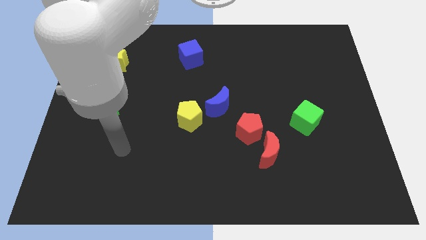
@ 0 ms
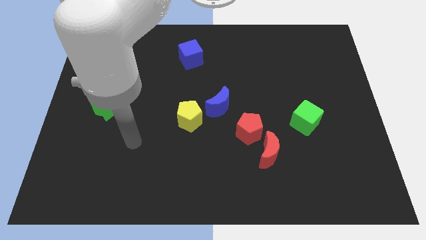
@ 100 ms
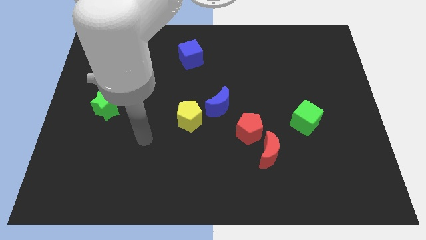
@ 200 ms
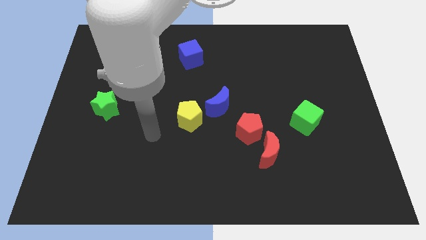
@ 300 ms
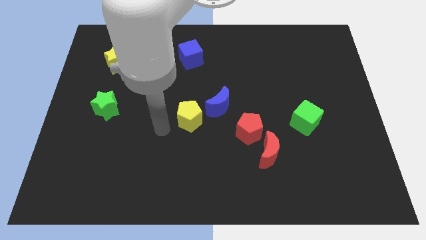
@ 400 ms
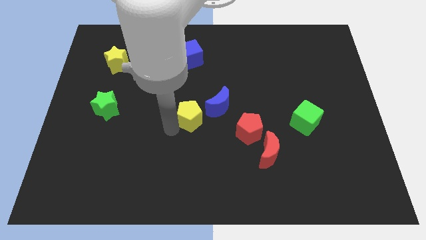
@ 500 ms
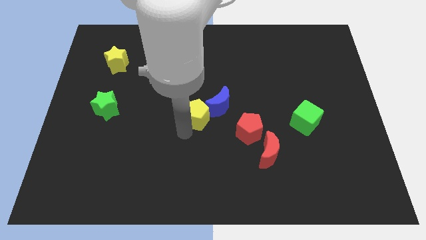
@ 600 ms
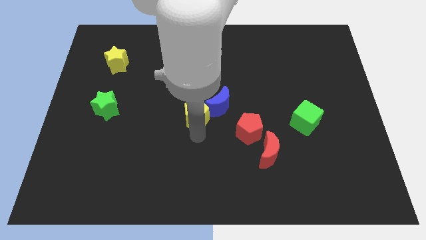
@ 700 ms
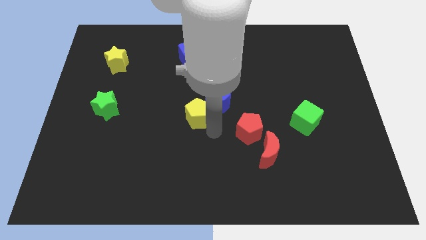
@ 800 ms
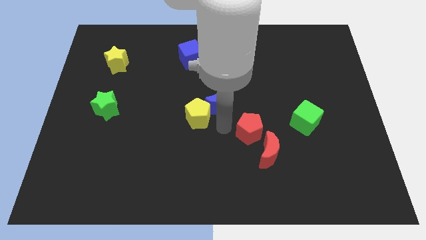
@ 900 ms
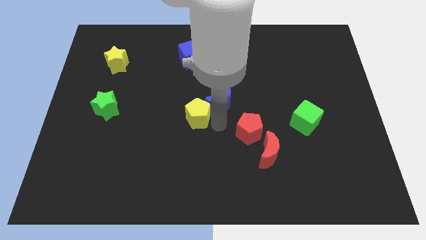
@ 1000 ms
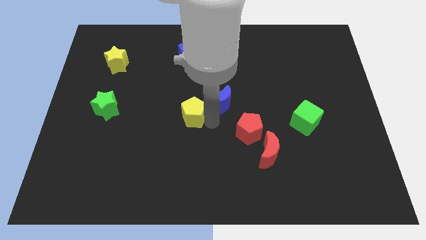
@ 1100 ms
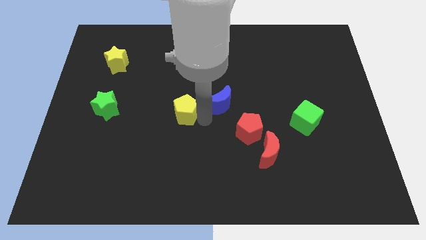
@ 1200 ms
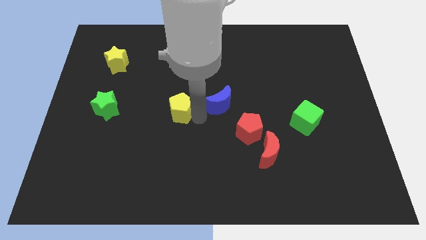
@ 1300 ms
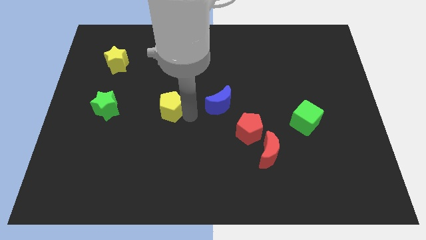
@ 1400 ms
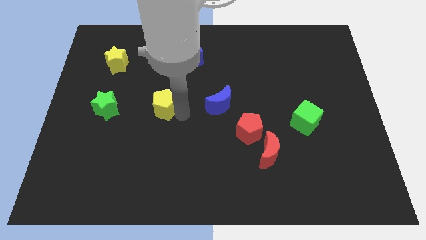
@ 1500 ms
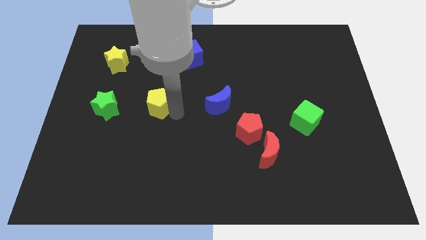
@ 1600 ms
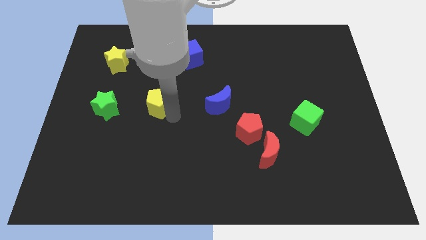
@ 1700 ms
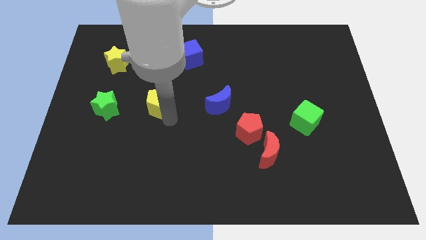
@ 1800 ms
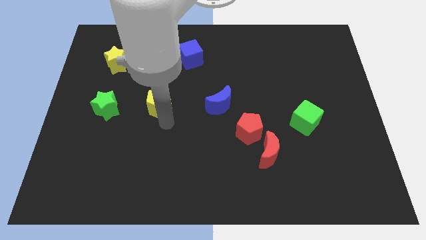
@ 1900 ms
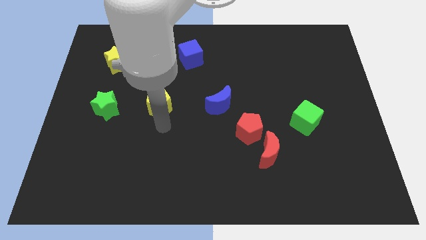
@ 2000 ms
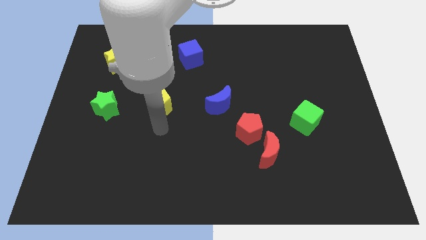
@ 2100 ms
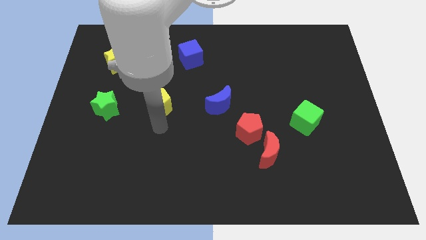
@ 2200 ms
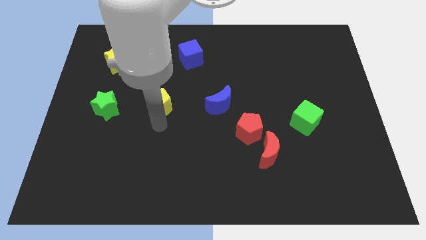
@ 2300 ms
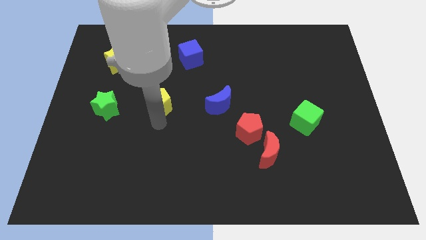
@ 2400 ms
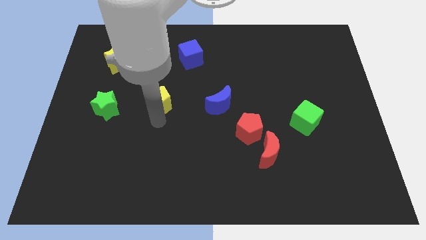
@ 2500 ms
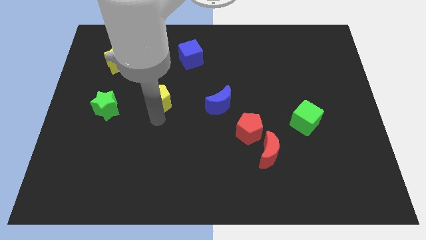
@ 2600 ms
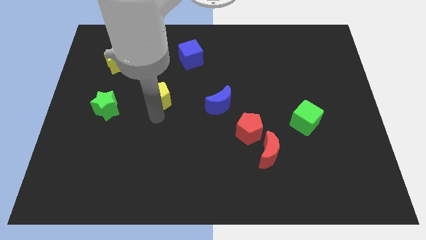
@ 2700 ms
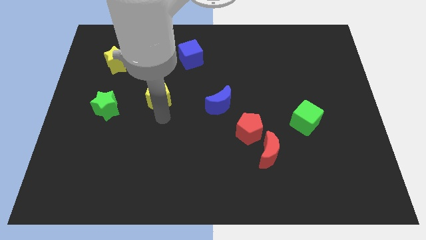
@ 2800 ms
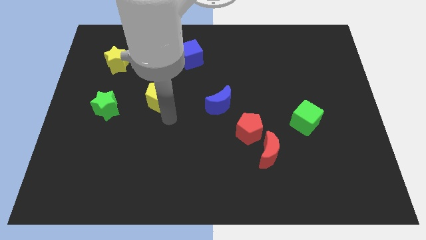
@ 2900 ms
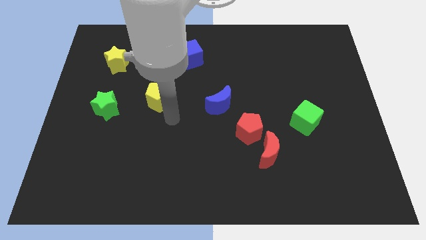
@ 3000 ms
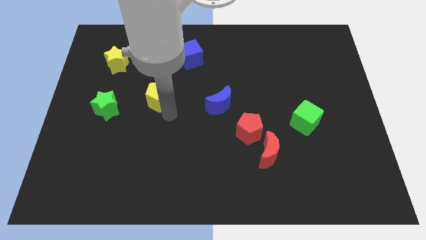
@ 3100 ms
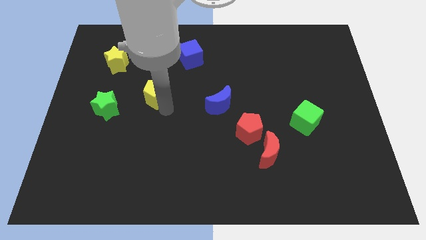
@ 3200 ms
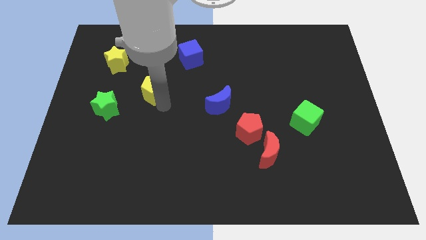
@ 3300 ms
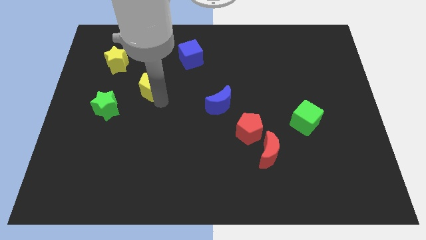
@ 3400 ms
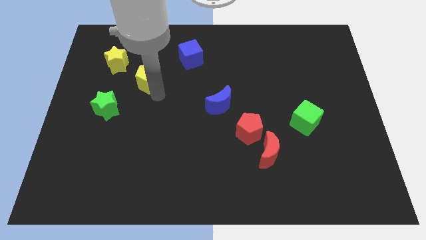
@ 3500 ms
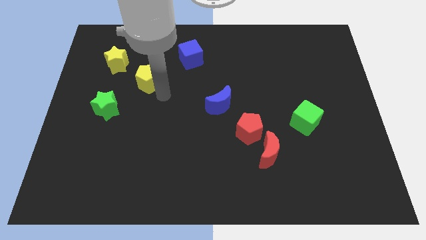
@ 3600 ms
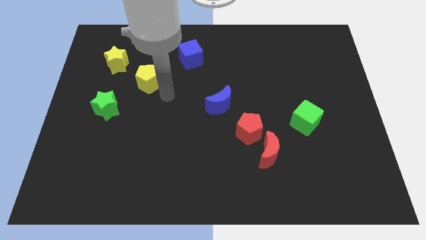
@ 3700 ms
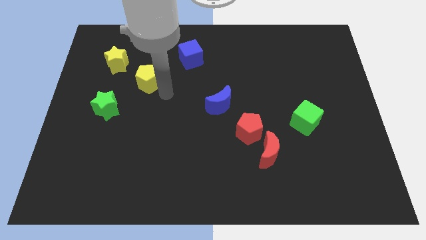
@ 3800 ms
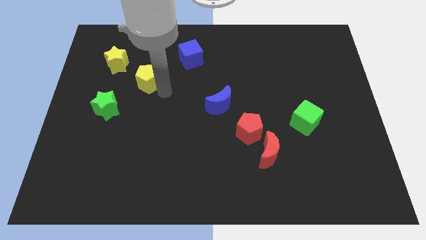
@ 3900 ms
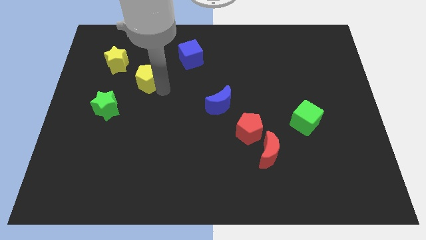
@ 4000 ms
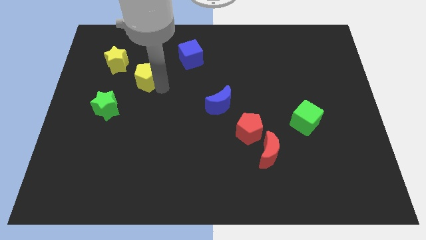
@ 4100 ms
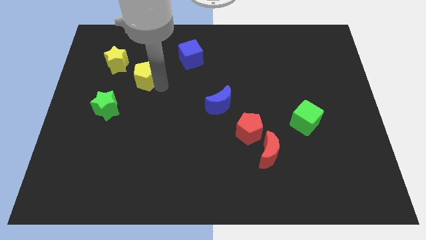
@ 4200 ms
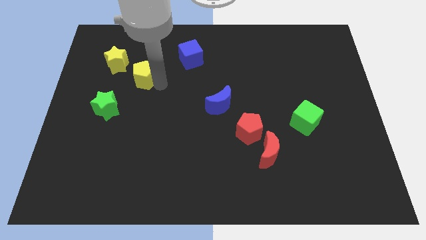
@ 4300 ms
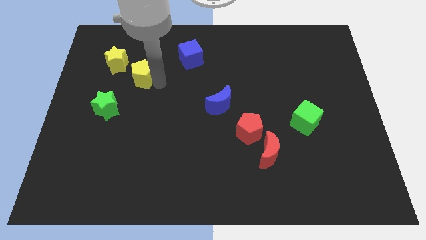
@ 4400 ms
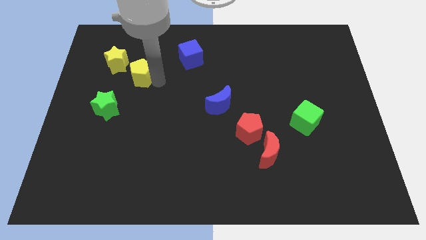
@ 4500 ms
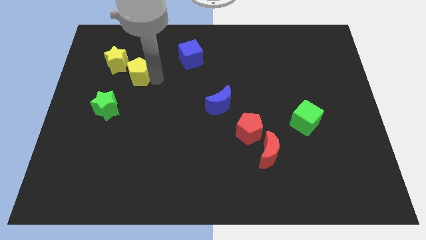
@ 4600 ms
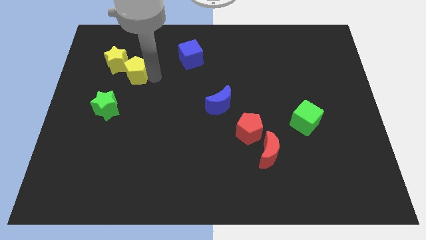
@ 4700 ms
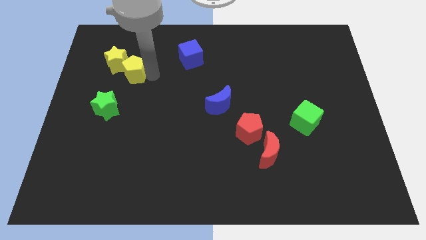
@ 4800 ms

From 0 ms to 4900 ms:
put the yellow pentagon close to the yellow star

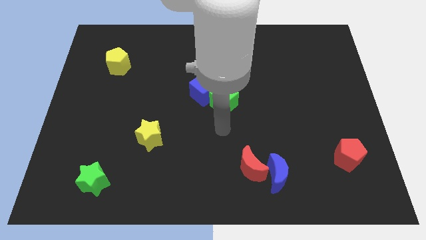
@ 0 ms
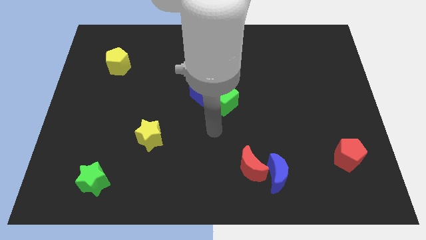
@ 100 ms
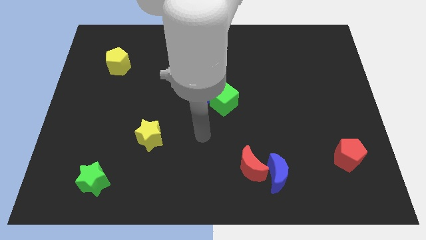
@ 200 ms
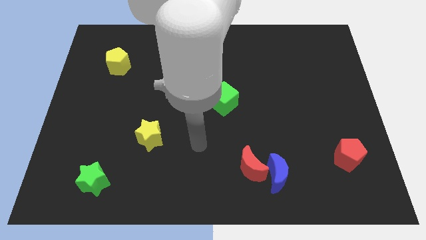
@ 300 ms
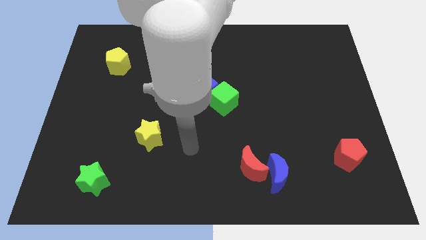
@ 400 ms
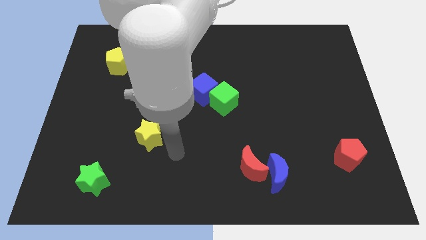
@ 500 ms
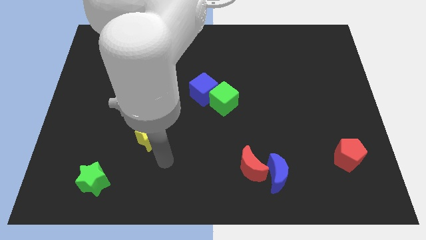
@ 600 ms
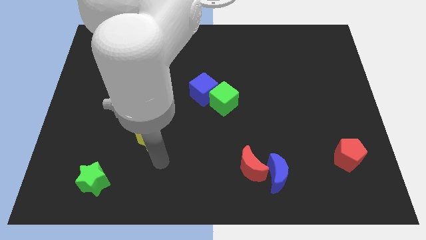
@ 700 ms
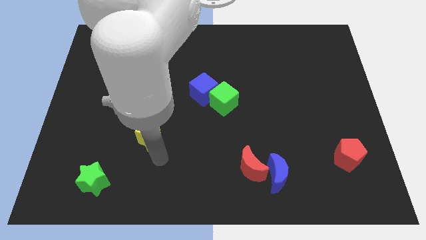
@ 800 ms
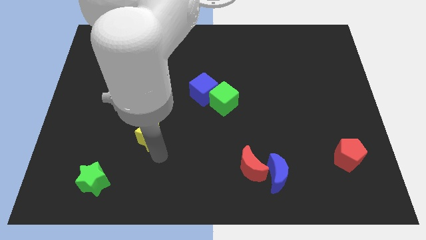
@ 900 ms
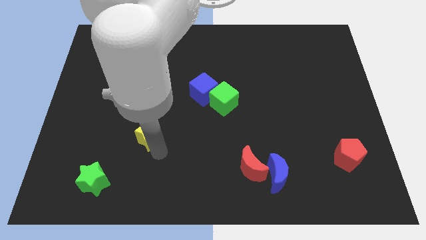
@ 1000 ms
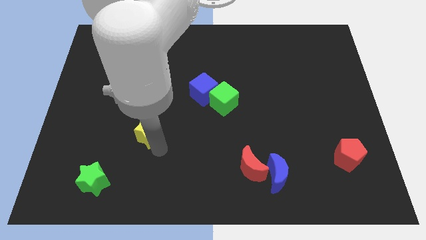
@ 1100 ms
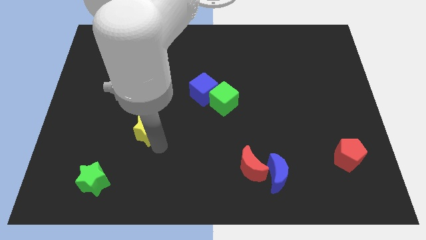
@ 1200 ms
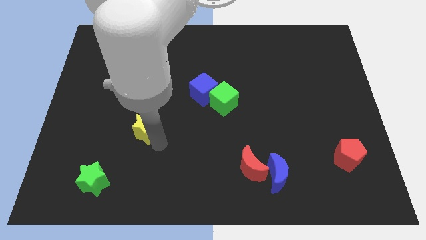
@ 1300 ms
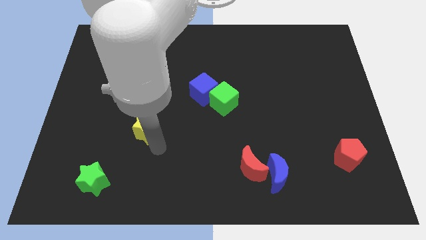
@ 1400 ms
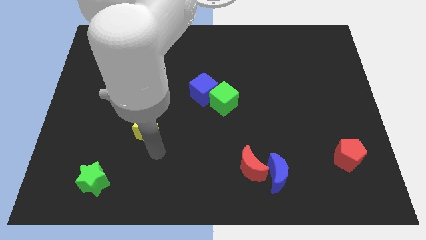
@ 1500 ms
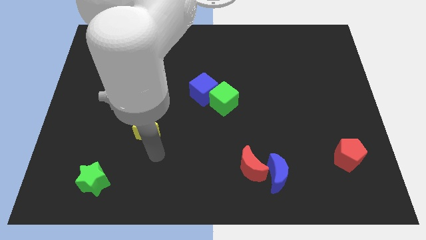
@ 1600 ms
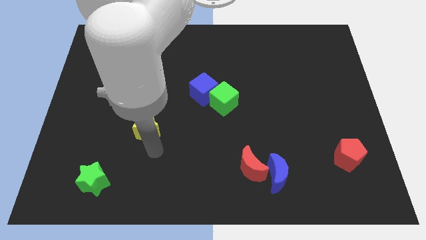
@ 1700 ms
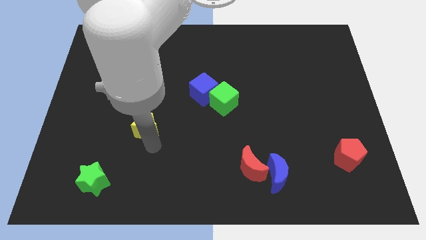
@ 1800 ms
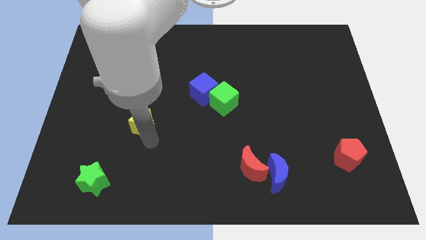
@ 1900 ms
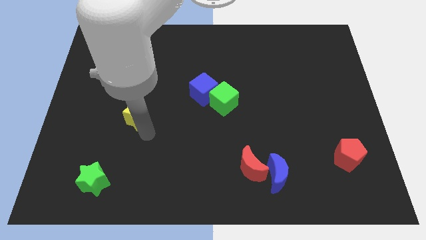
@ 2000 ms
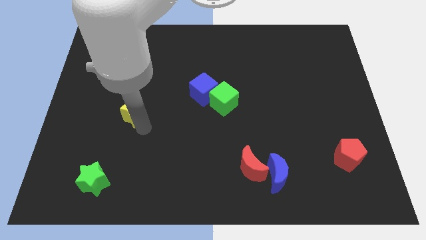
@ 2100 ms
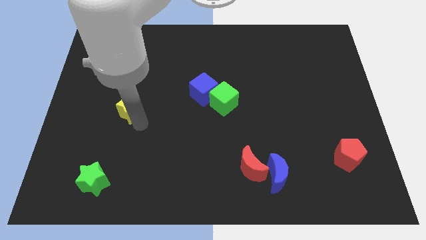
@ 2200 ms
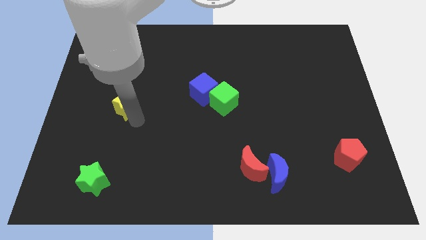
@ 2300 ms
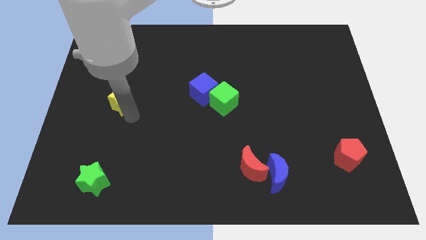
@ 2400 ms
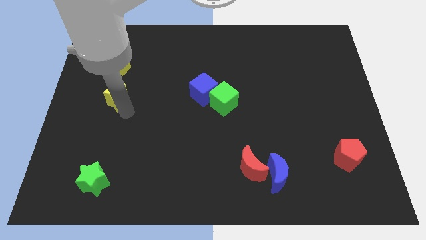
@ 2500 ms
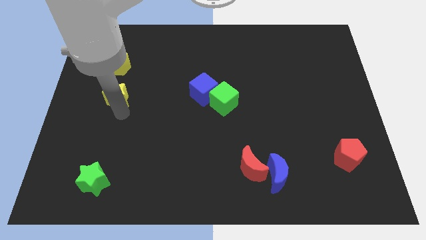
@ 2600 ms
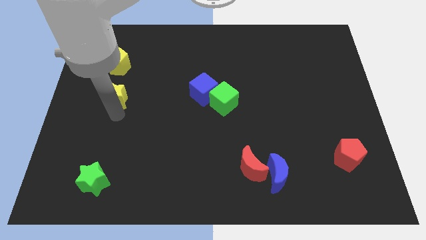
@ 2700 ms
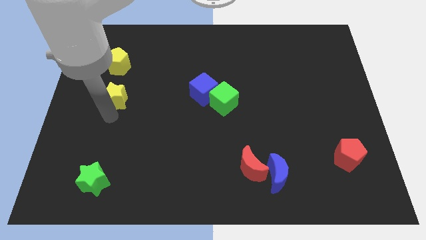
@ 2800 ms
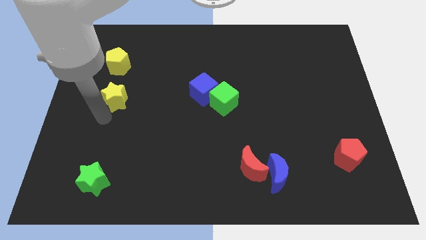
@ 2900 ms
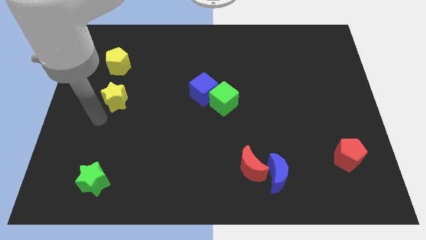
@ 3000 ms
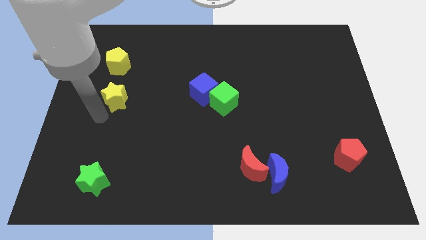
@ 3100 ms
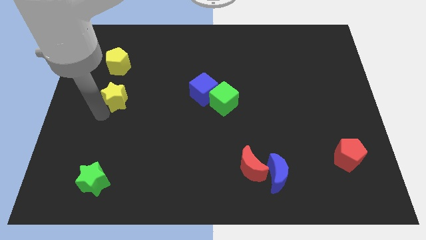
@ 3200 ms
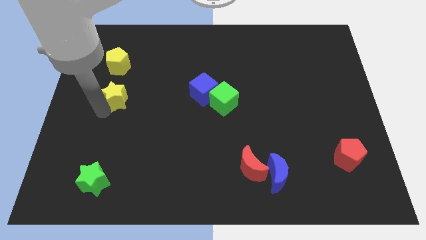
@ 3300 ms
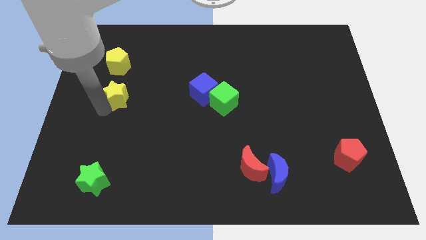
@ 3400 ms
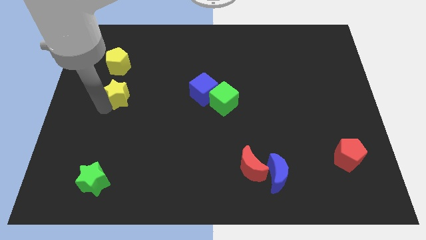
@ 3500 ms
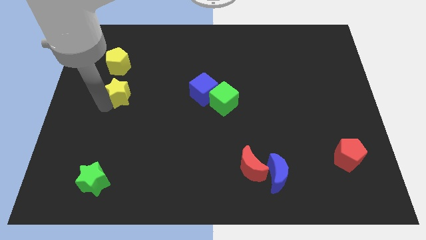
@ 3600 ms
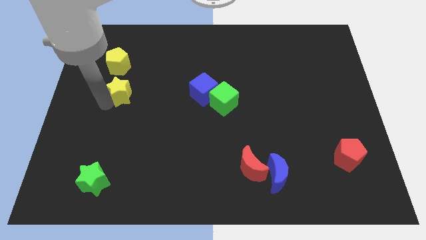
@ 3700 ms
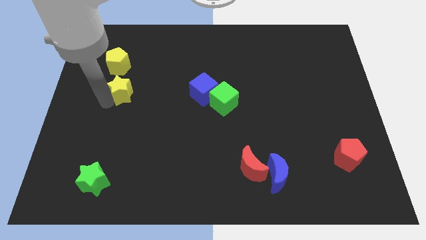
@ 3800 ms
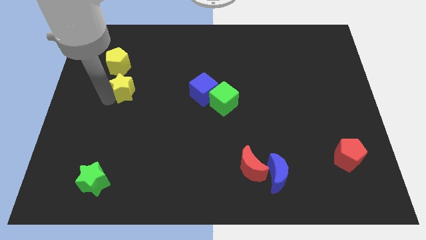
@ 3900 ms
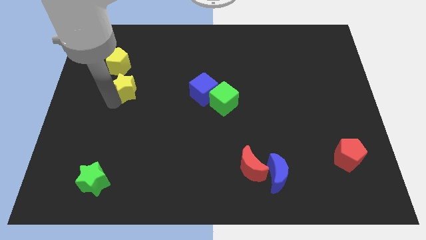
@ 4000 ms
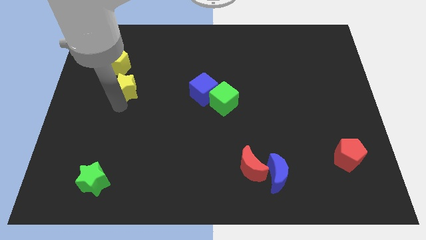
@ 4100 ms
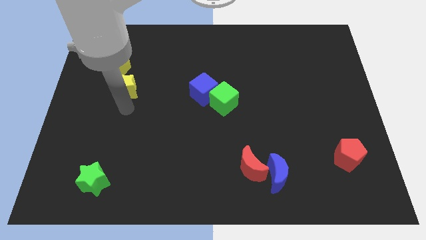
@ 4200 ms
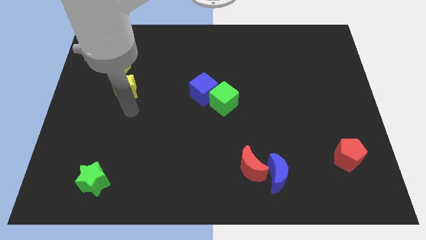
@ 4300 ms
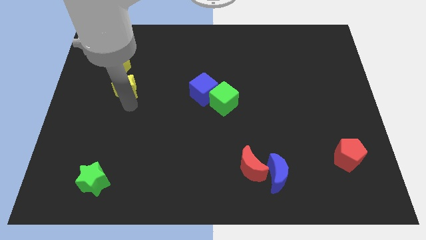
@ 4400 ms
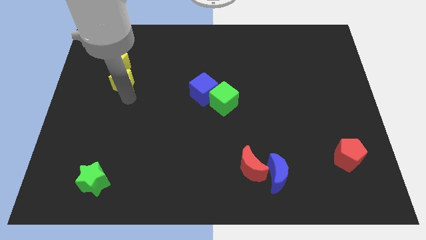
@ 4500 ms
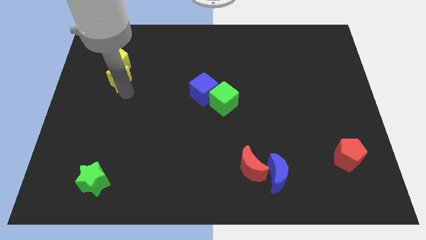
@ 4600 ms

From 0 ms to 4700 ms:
put the yellow star towards the yellow pentagon
